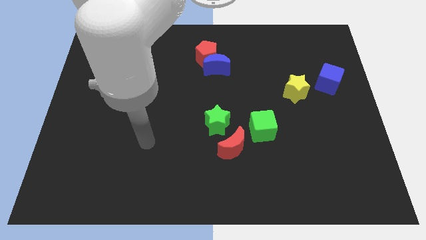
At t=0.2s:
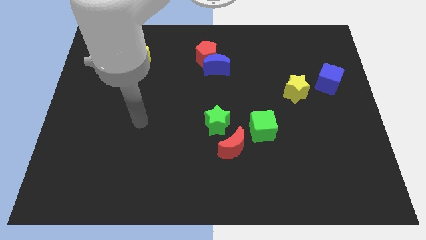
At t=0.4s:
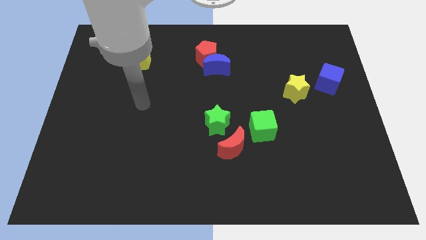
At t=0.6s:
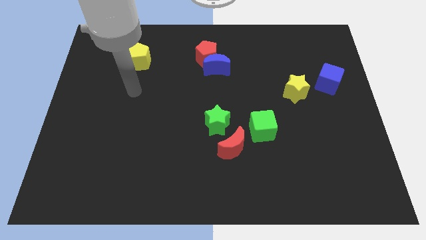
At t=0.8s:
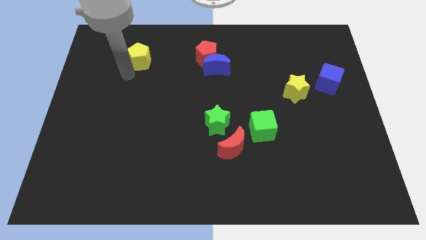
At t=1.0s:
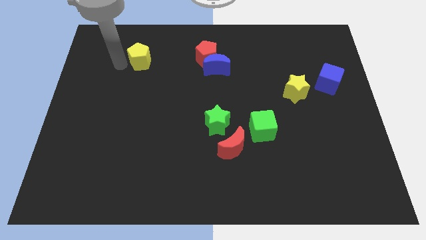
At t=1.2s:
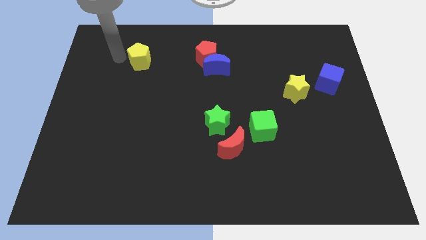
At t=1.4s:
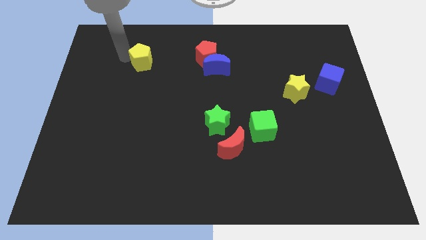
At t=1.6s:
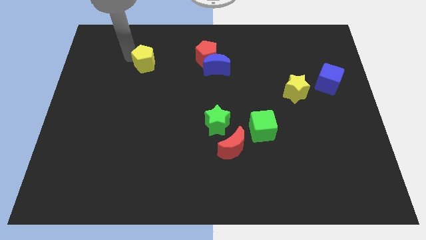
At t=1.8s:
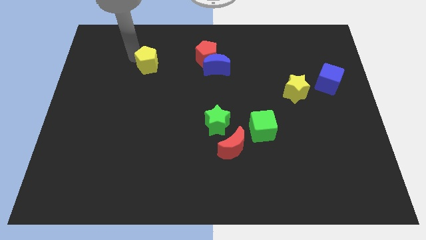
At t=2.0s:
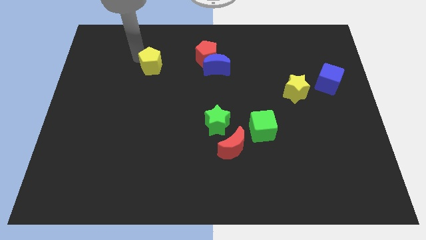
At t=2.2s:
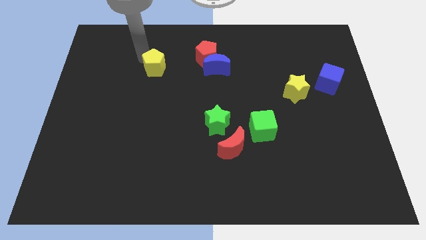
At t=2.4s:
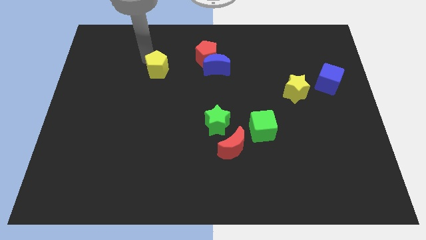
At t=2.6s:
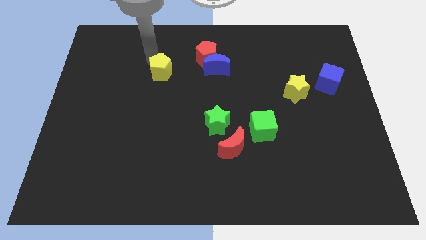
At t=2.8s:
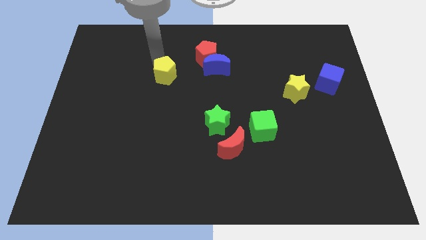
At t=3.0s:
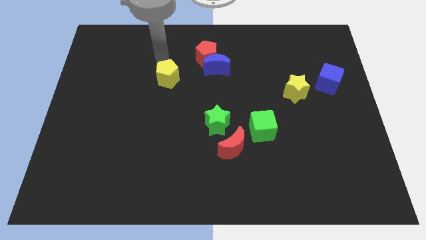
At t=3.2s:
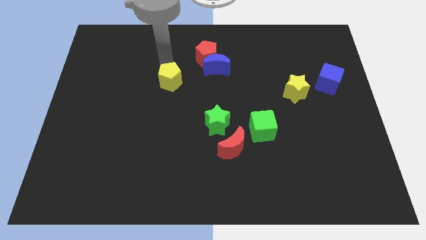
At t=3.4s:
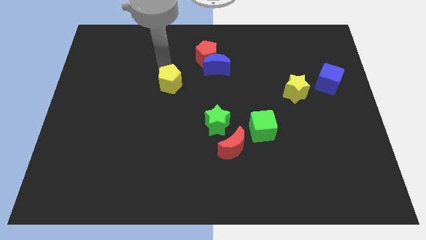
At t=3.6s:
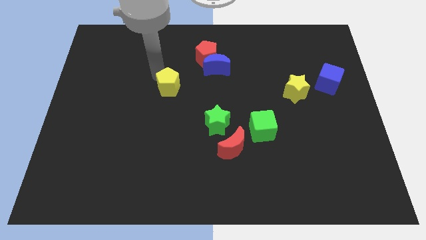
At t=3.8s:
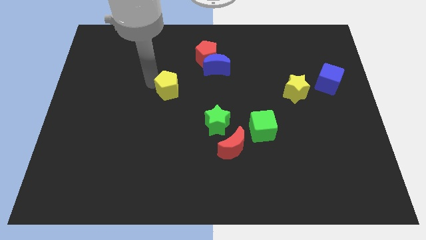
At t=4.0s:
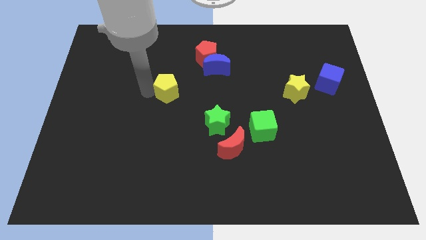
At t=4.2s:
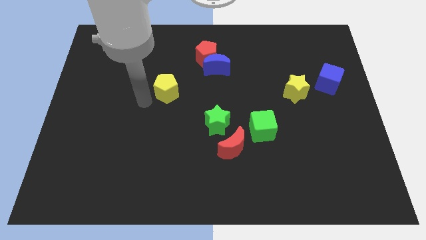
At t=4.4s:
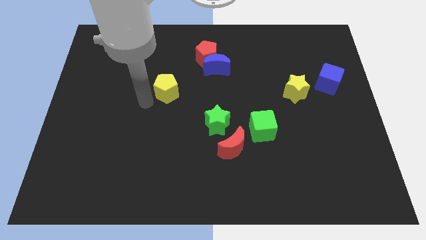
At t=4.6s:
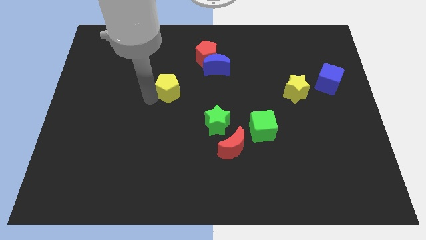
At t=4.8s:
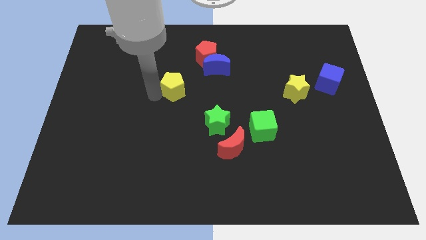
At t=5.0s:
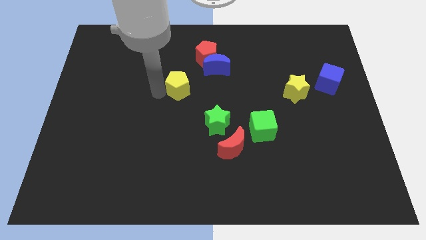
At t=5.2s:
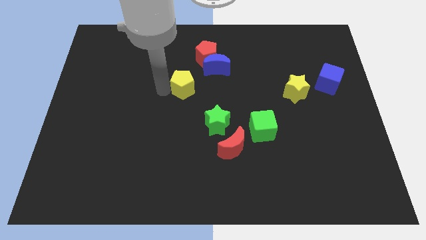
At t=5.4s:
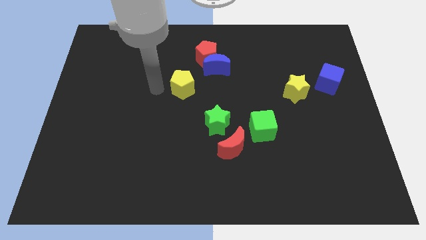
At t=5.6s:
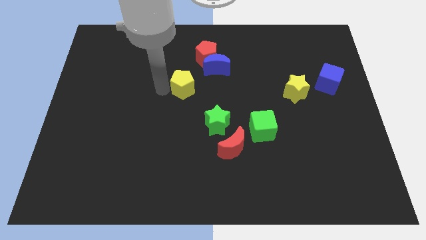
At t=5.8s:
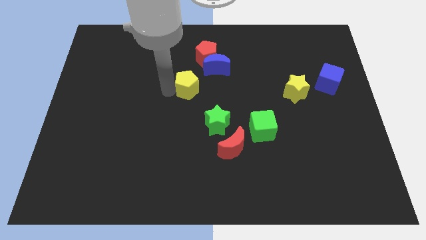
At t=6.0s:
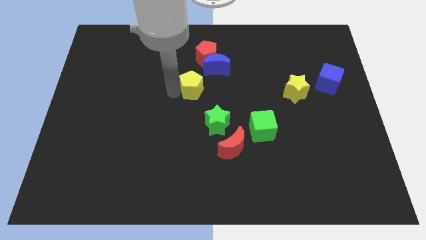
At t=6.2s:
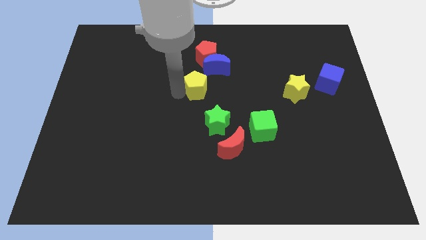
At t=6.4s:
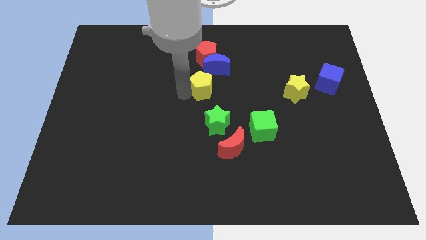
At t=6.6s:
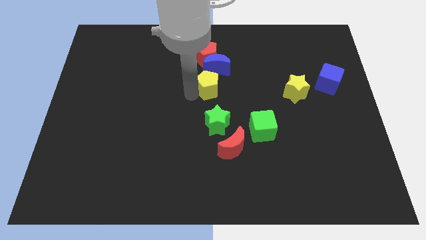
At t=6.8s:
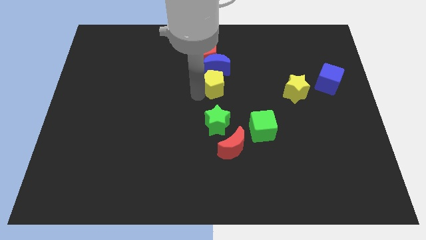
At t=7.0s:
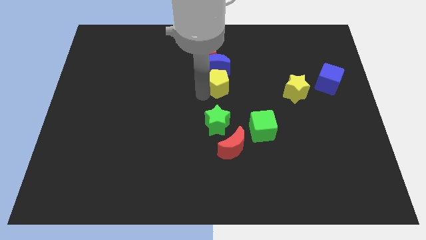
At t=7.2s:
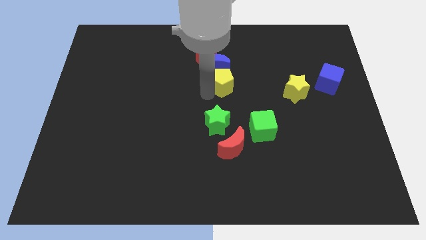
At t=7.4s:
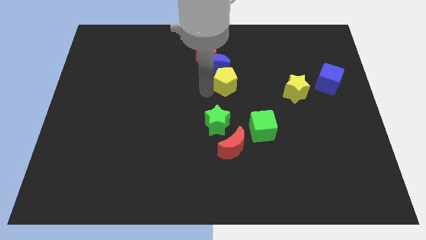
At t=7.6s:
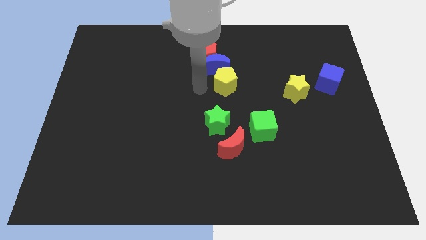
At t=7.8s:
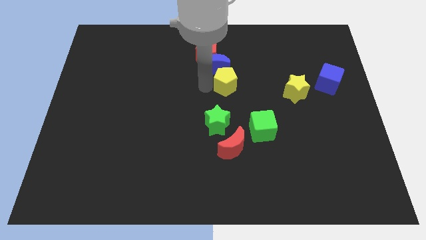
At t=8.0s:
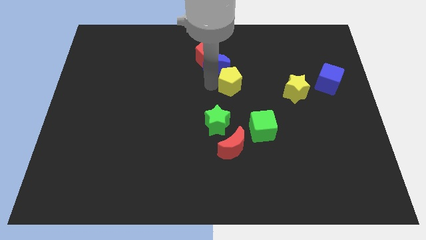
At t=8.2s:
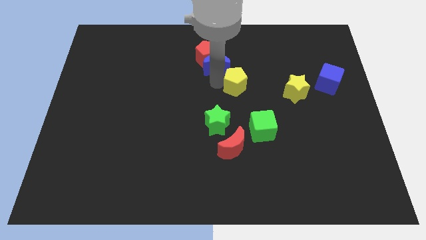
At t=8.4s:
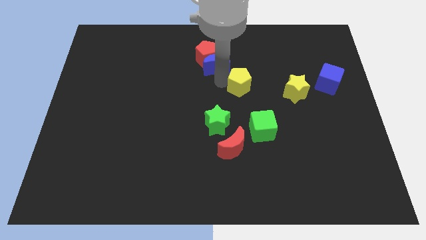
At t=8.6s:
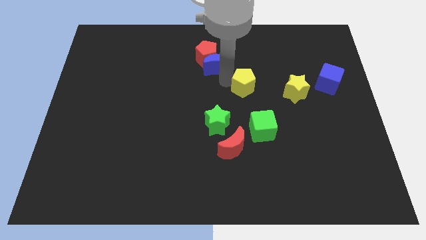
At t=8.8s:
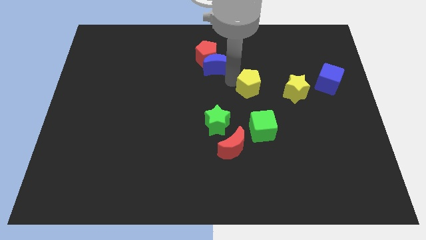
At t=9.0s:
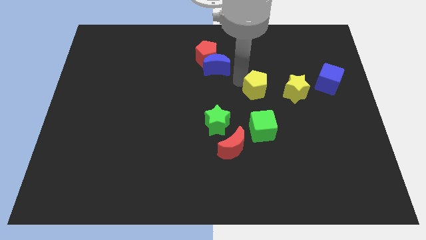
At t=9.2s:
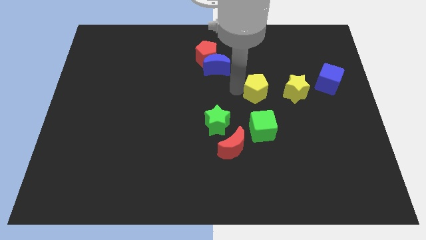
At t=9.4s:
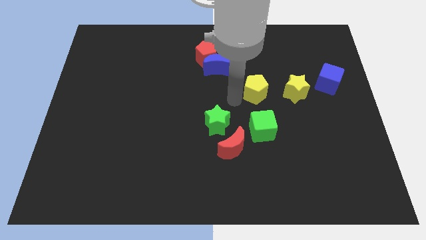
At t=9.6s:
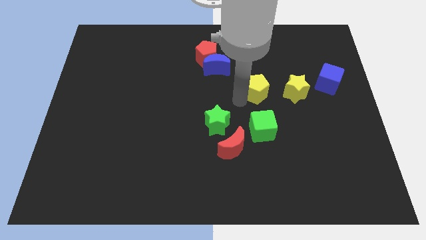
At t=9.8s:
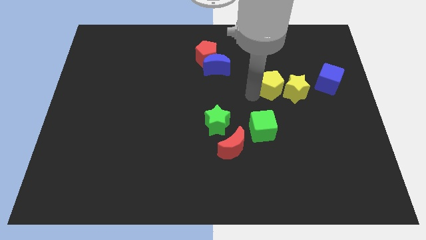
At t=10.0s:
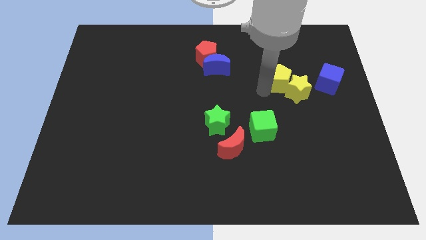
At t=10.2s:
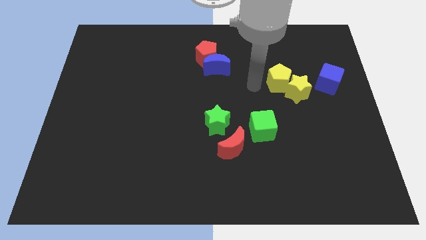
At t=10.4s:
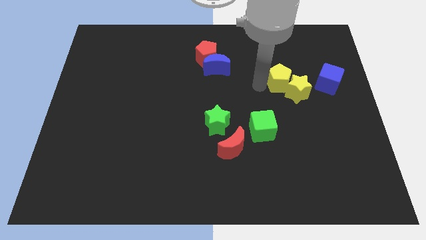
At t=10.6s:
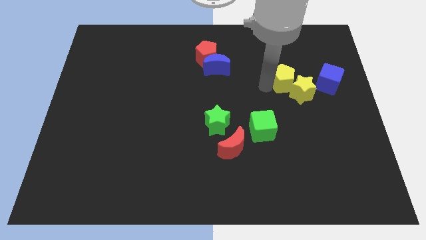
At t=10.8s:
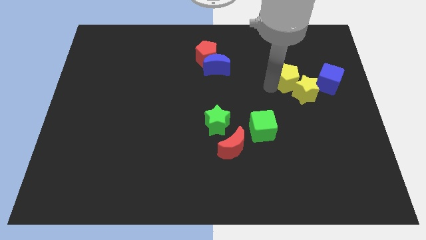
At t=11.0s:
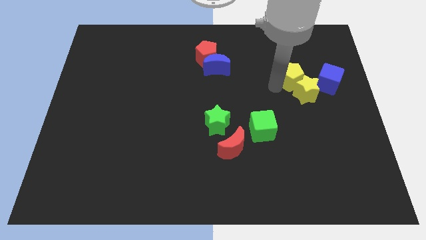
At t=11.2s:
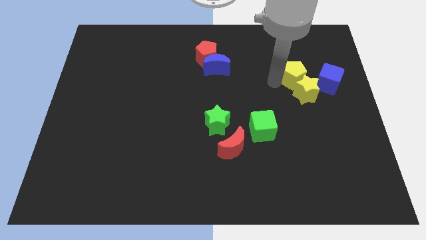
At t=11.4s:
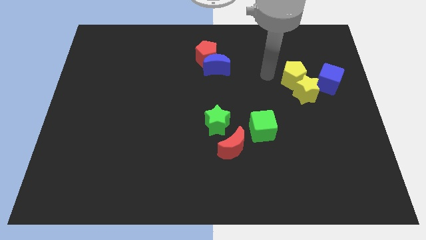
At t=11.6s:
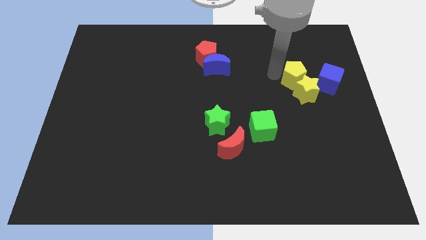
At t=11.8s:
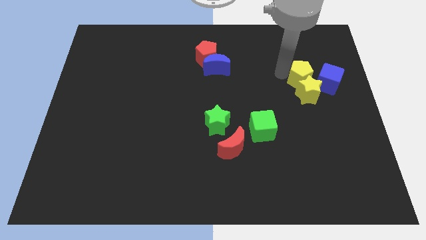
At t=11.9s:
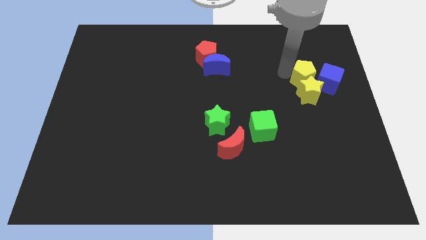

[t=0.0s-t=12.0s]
slide the yellow pentagon next to the blue cube

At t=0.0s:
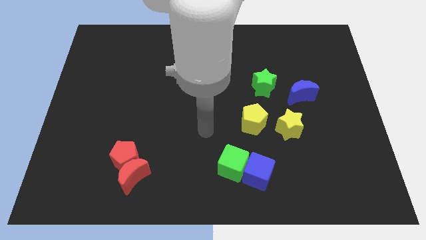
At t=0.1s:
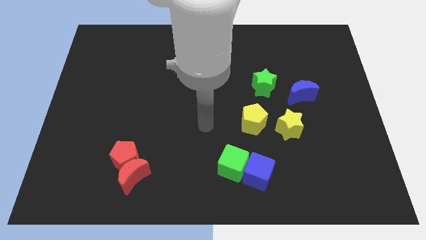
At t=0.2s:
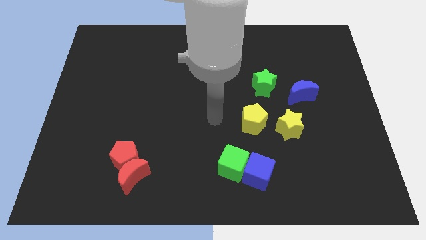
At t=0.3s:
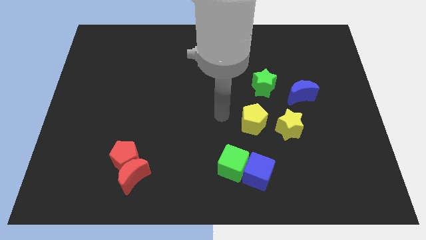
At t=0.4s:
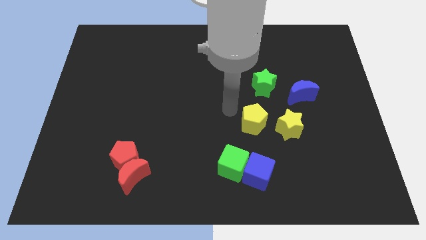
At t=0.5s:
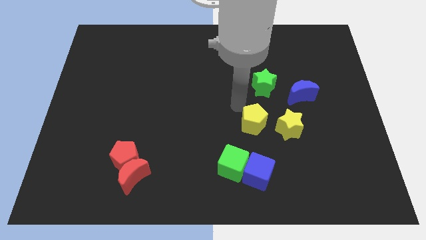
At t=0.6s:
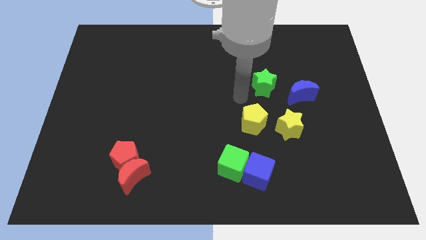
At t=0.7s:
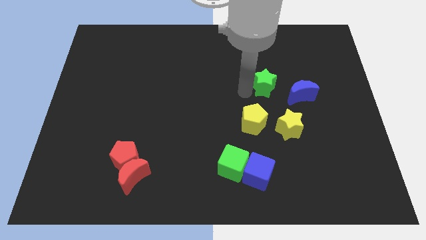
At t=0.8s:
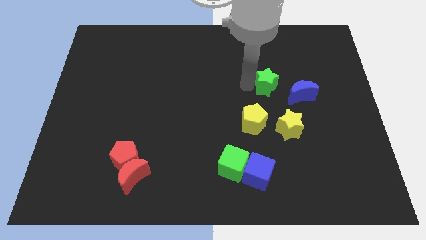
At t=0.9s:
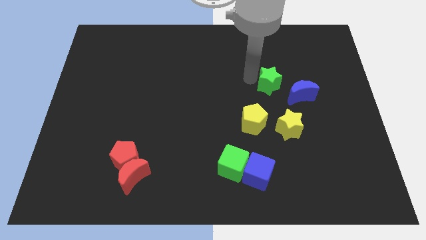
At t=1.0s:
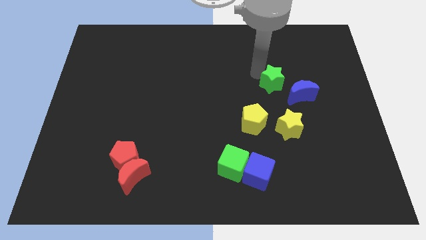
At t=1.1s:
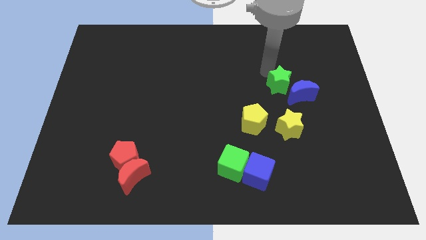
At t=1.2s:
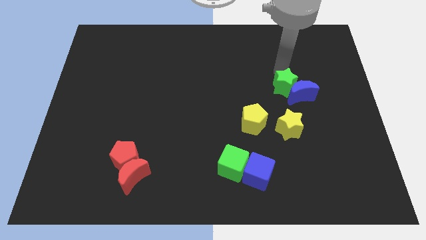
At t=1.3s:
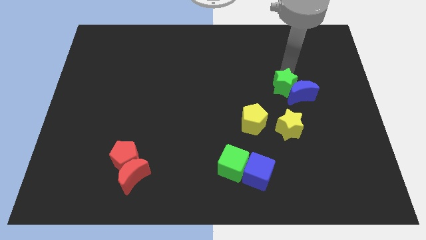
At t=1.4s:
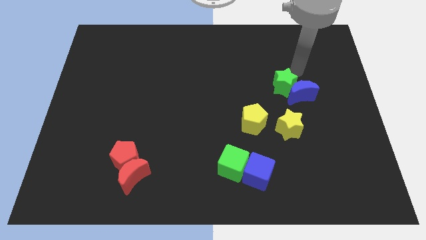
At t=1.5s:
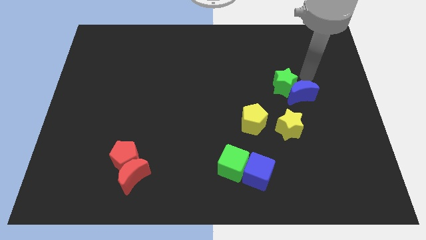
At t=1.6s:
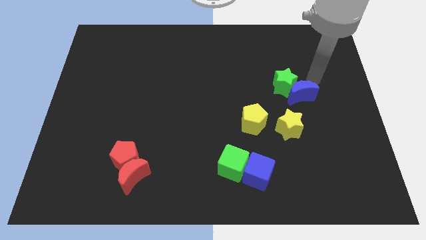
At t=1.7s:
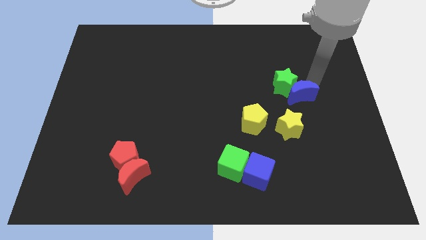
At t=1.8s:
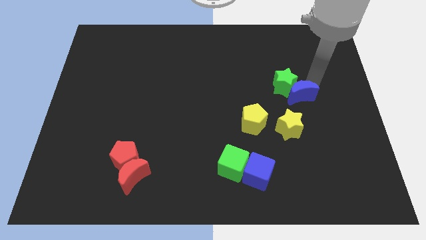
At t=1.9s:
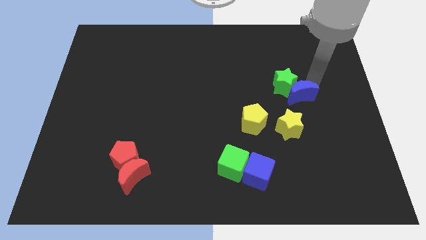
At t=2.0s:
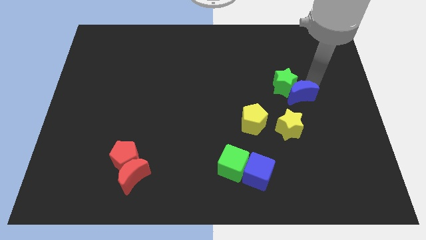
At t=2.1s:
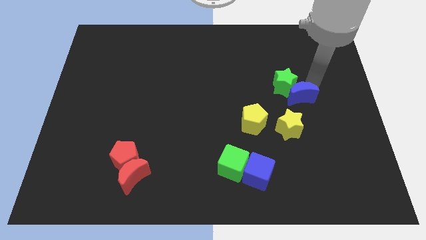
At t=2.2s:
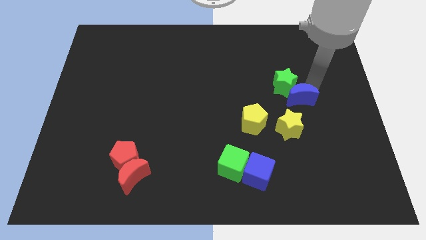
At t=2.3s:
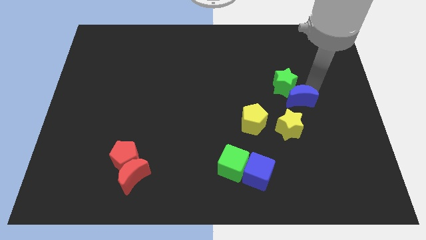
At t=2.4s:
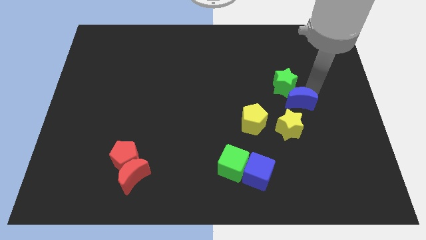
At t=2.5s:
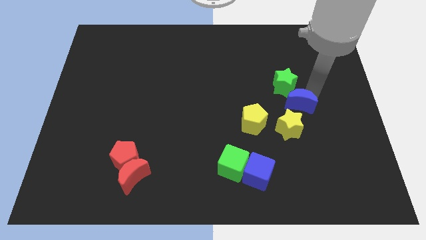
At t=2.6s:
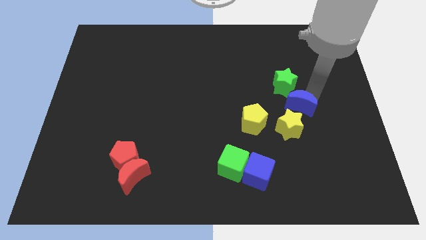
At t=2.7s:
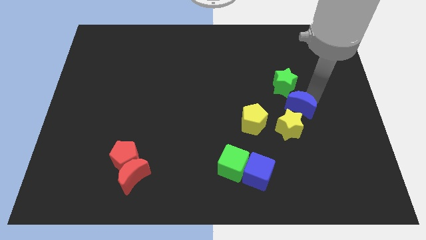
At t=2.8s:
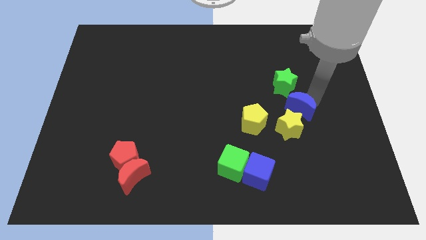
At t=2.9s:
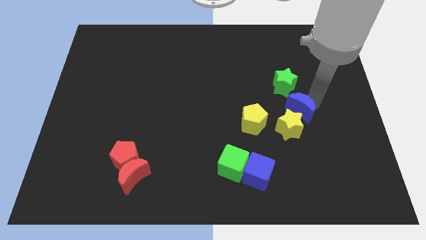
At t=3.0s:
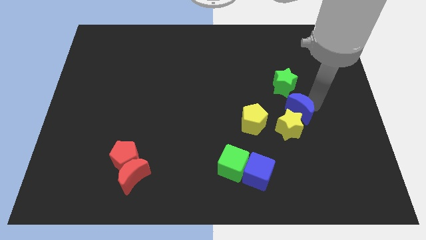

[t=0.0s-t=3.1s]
slide the blue moon to the yellow star
